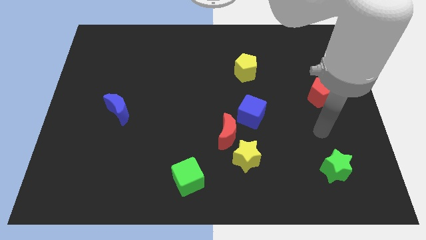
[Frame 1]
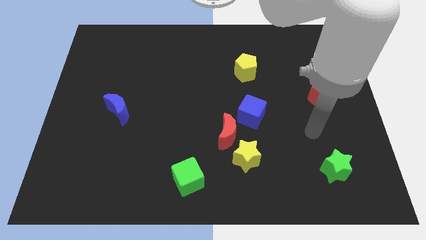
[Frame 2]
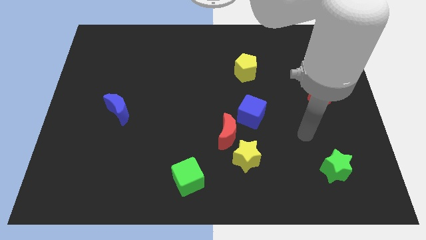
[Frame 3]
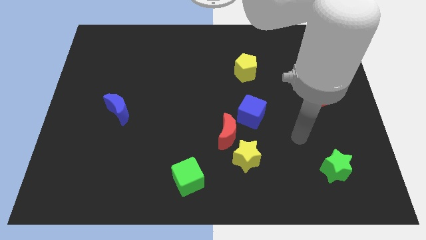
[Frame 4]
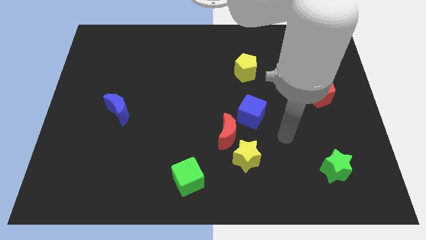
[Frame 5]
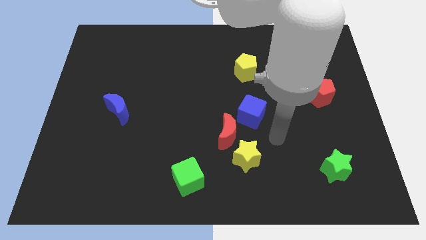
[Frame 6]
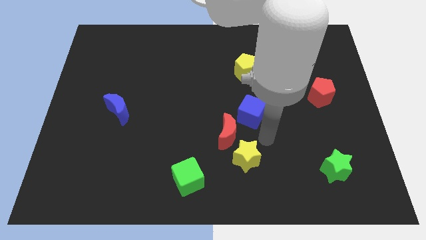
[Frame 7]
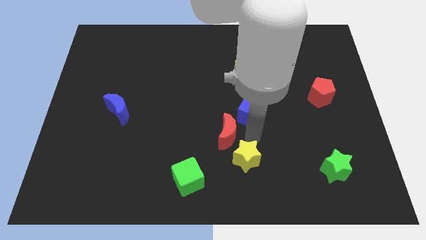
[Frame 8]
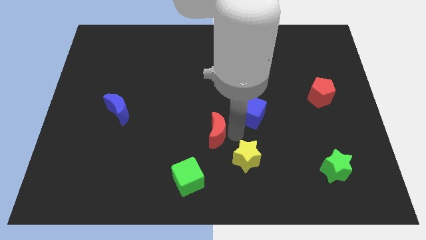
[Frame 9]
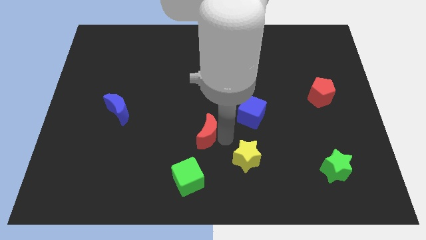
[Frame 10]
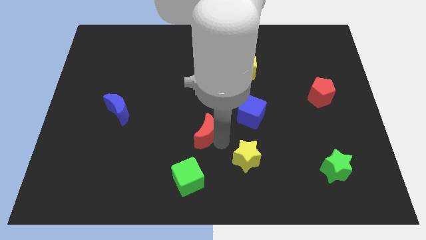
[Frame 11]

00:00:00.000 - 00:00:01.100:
pull the yellow star apart from the red moon

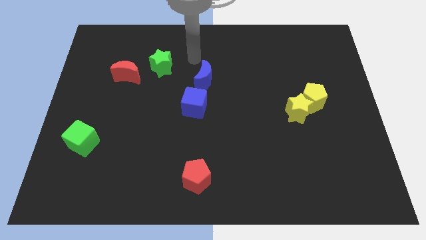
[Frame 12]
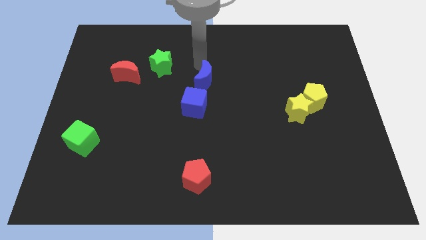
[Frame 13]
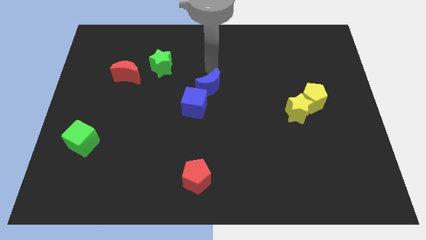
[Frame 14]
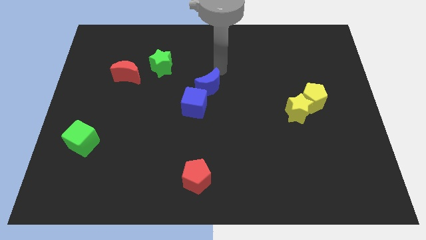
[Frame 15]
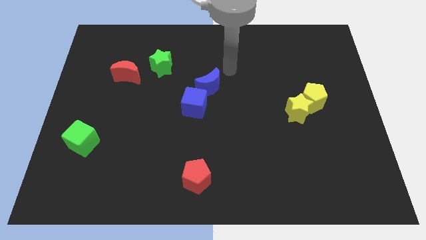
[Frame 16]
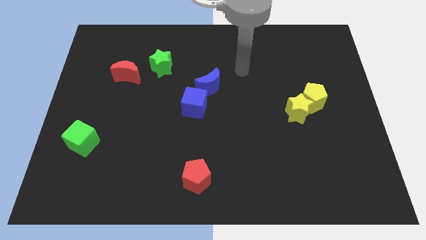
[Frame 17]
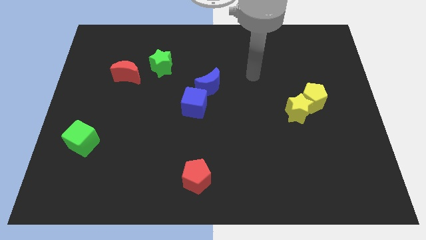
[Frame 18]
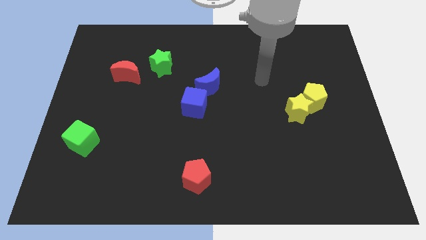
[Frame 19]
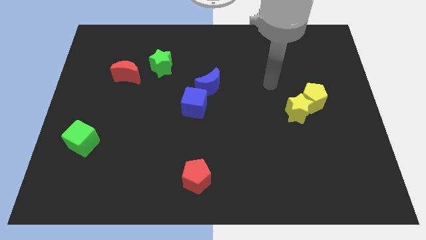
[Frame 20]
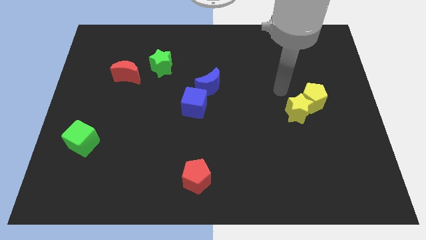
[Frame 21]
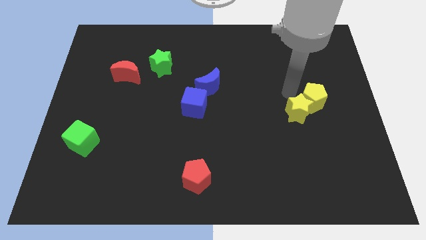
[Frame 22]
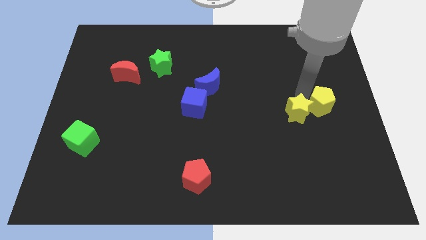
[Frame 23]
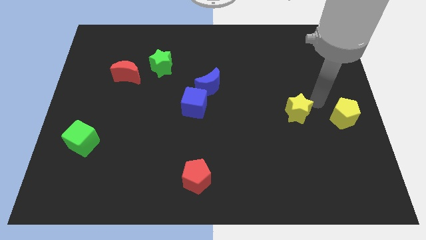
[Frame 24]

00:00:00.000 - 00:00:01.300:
move the yellow star away from the yellow pentagon

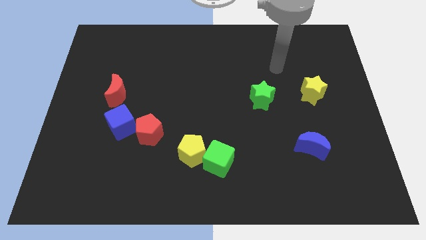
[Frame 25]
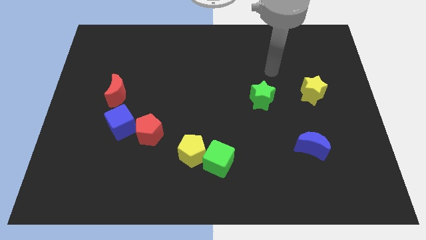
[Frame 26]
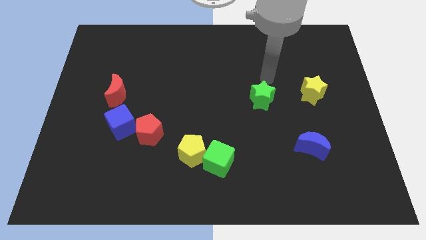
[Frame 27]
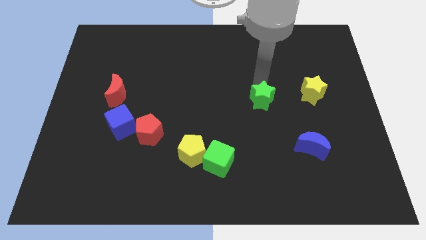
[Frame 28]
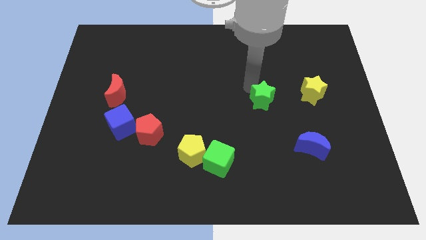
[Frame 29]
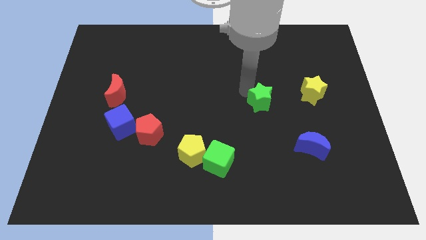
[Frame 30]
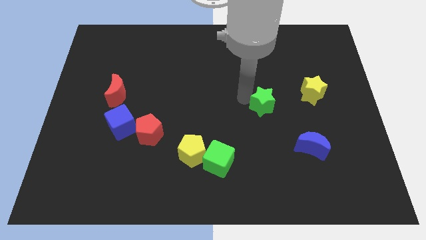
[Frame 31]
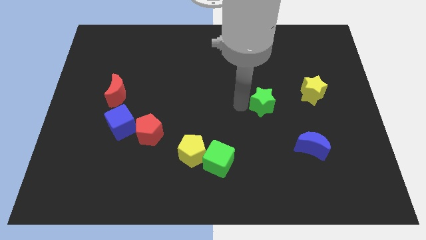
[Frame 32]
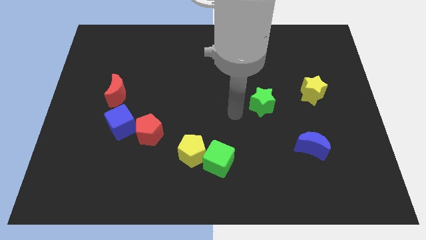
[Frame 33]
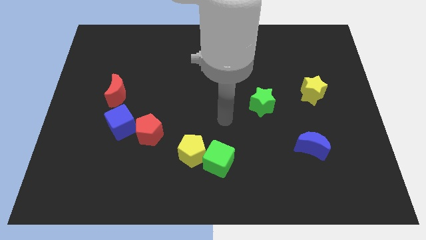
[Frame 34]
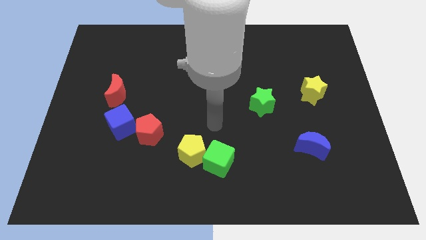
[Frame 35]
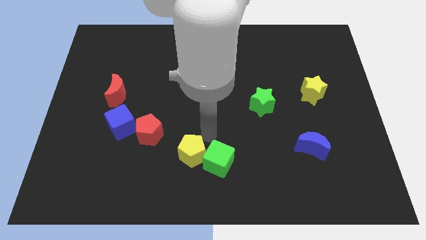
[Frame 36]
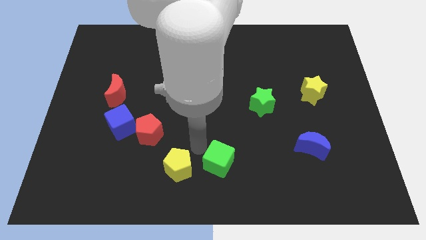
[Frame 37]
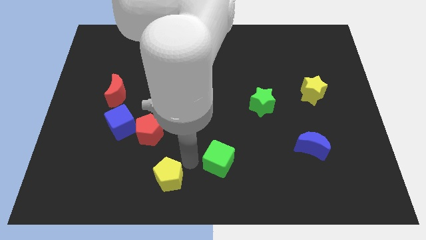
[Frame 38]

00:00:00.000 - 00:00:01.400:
separate the green cube from the yellow pentagon

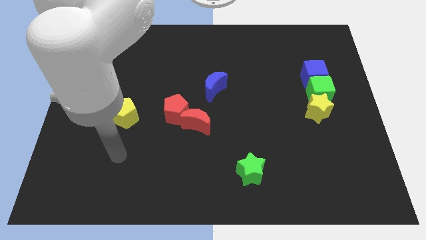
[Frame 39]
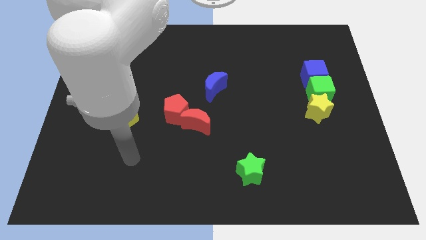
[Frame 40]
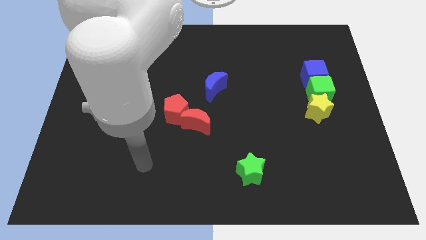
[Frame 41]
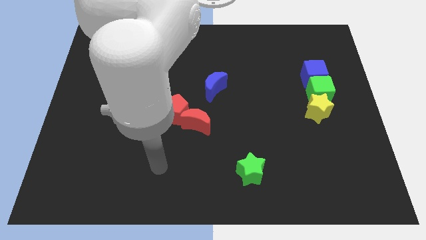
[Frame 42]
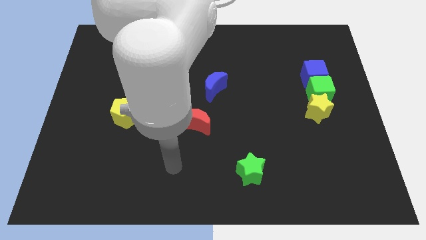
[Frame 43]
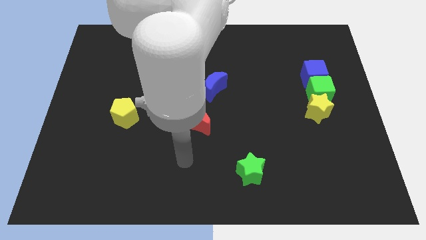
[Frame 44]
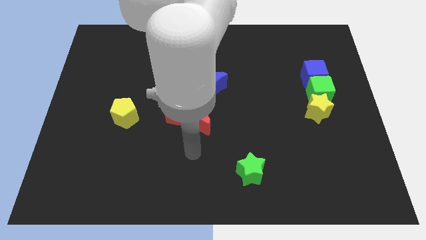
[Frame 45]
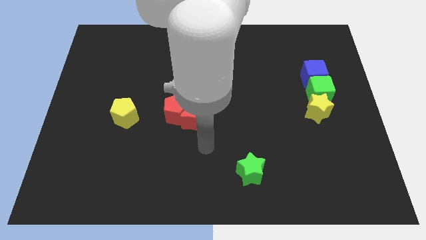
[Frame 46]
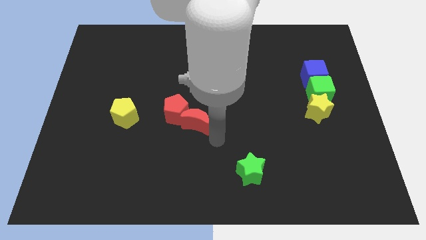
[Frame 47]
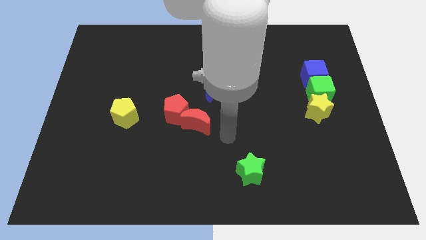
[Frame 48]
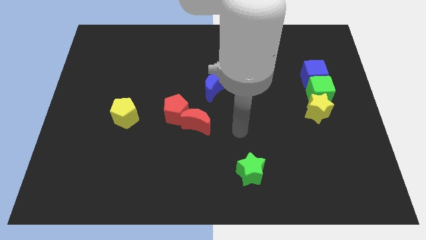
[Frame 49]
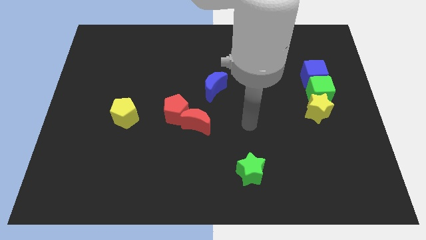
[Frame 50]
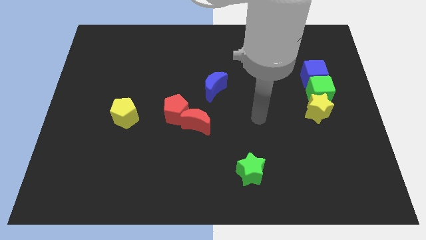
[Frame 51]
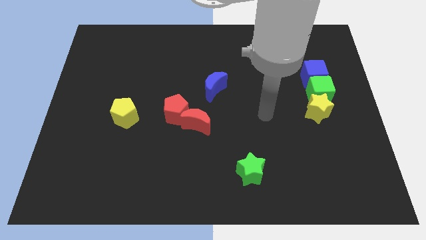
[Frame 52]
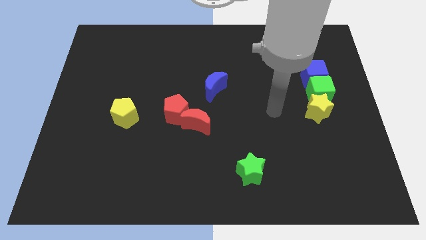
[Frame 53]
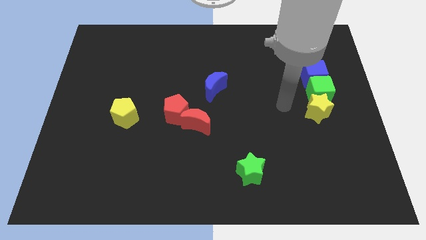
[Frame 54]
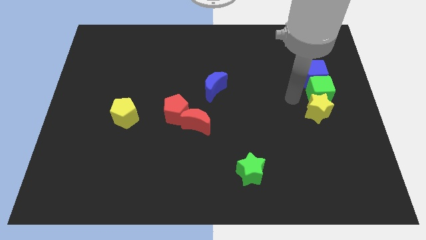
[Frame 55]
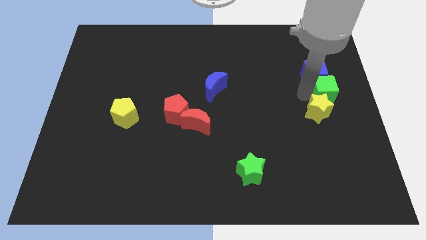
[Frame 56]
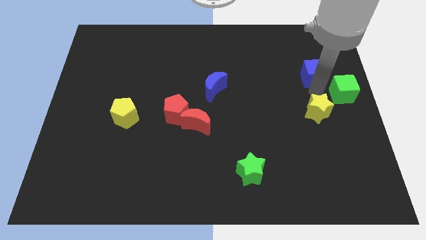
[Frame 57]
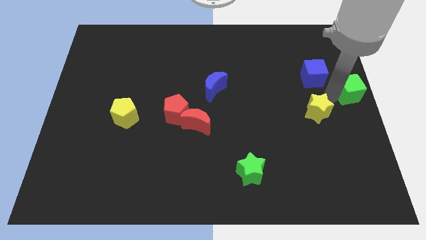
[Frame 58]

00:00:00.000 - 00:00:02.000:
move the yellow star away from the green cube

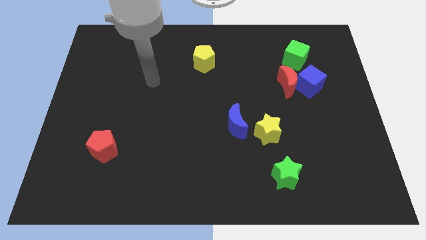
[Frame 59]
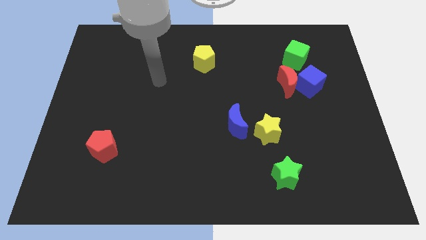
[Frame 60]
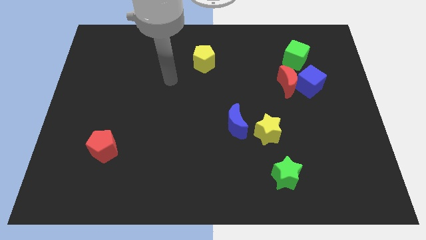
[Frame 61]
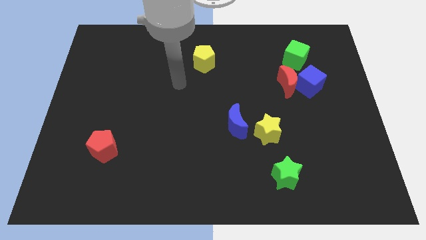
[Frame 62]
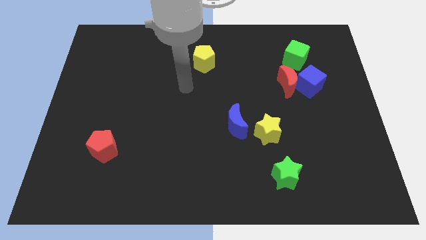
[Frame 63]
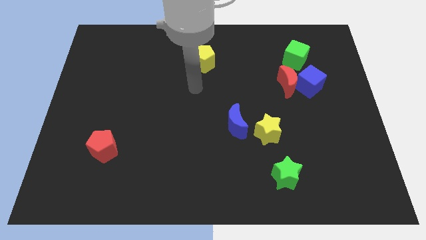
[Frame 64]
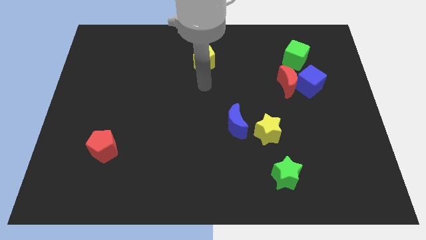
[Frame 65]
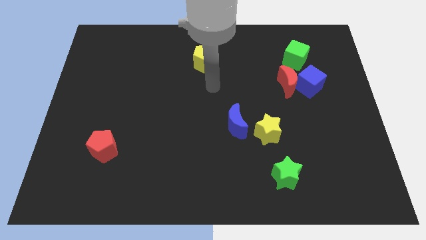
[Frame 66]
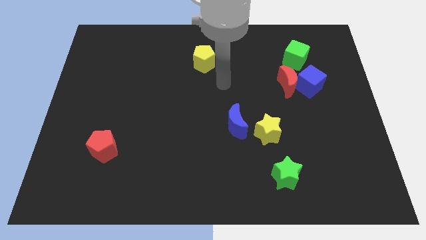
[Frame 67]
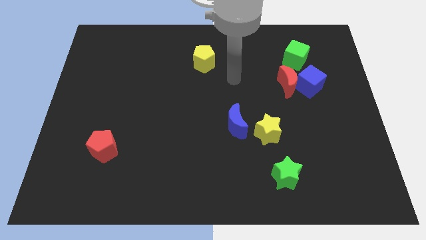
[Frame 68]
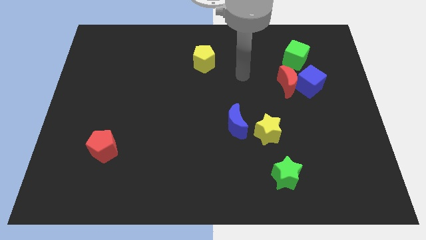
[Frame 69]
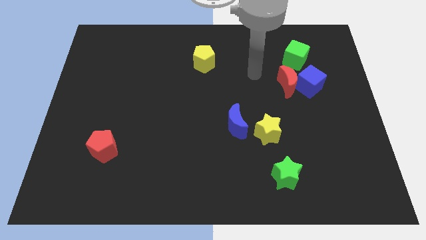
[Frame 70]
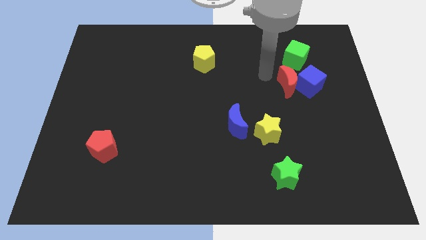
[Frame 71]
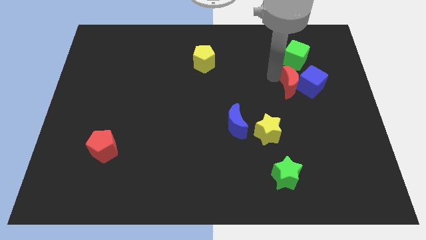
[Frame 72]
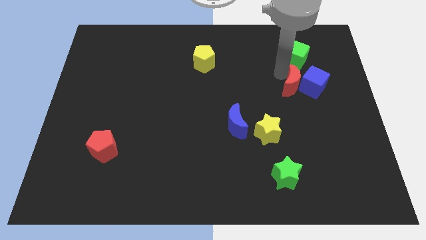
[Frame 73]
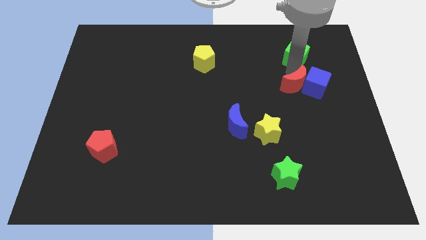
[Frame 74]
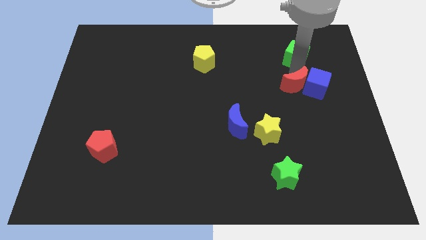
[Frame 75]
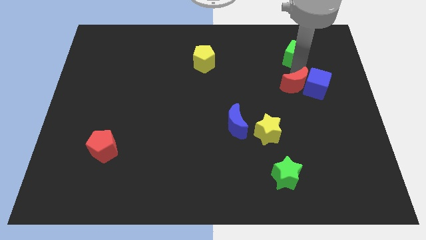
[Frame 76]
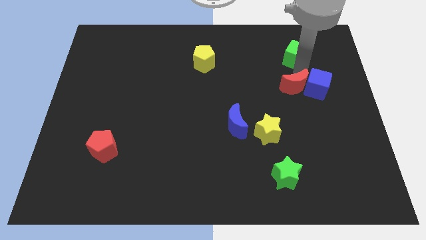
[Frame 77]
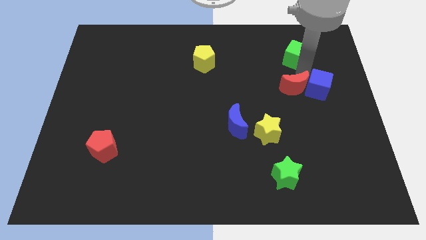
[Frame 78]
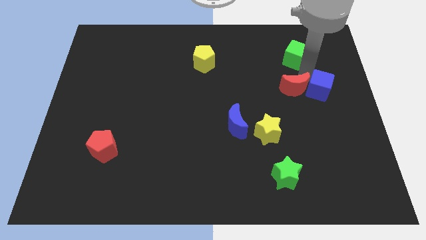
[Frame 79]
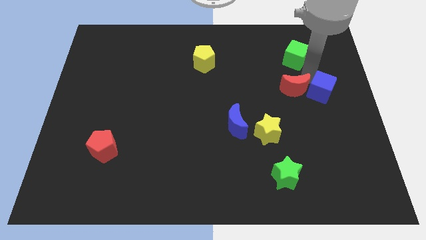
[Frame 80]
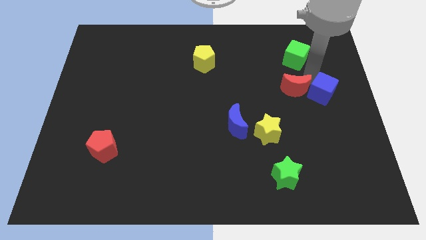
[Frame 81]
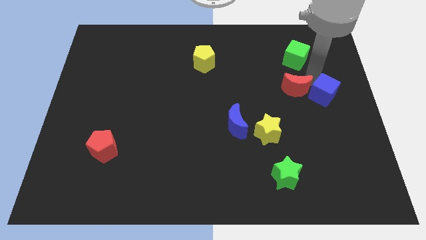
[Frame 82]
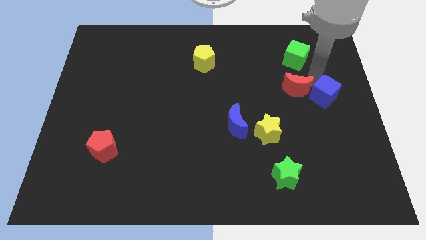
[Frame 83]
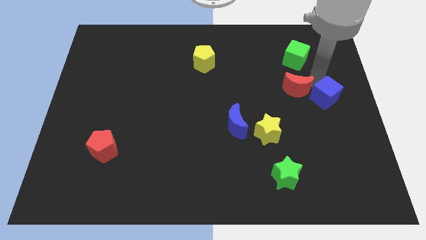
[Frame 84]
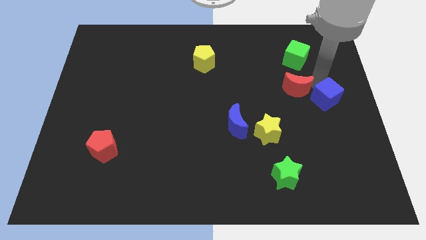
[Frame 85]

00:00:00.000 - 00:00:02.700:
separate the blue cube from the red moon and green cube

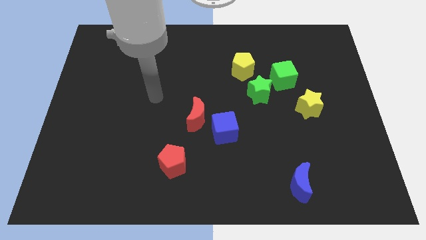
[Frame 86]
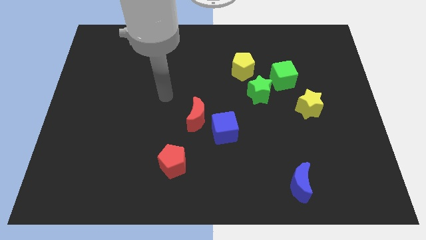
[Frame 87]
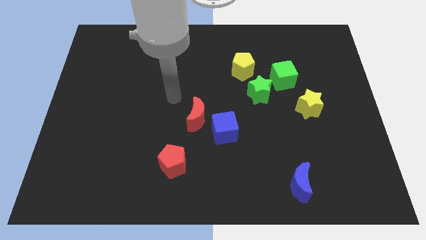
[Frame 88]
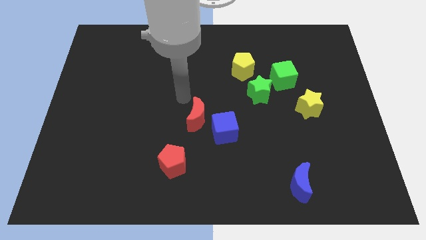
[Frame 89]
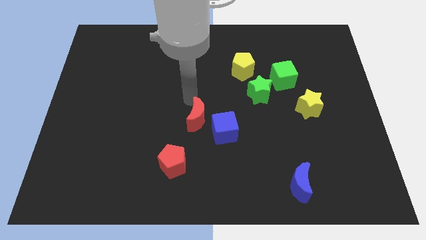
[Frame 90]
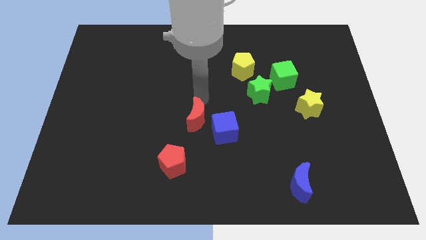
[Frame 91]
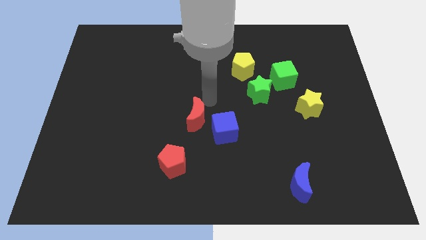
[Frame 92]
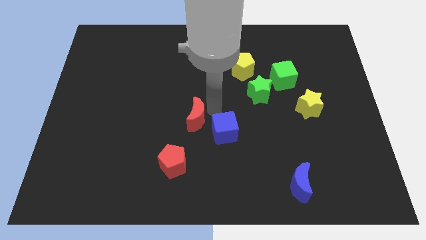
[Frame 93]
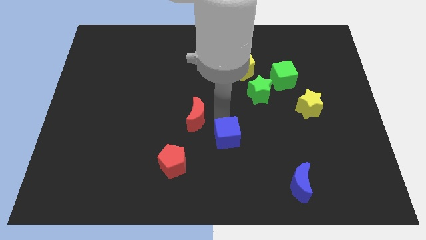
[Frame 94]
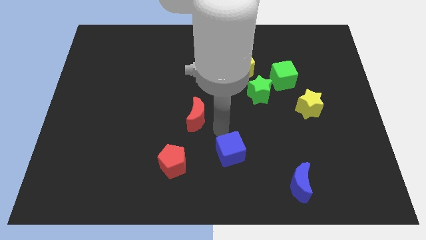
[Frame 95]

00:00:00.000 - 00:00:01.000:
pull the red moon apart from the blue cube
